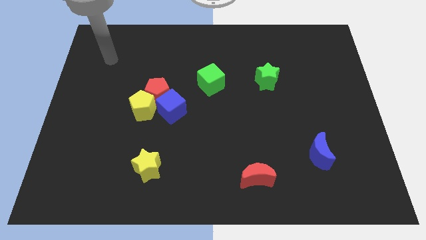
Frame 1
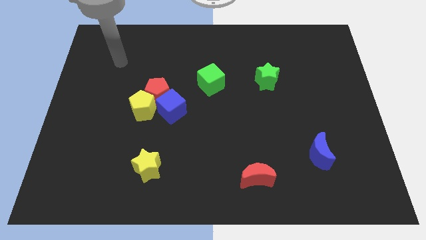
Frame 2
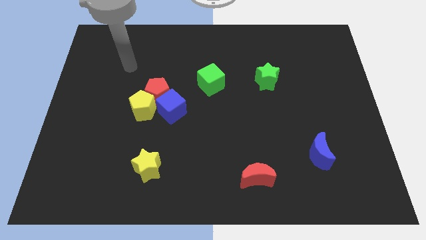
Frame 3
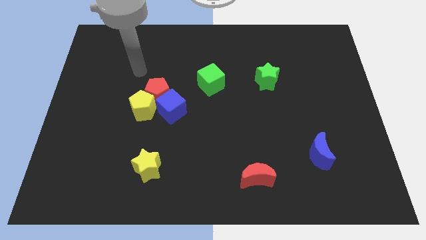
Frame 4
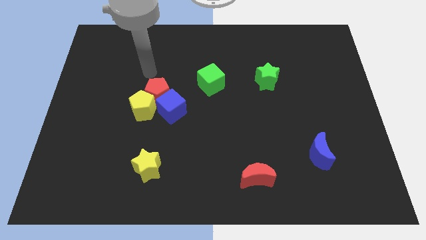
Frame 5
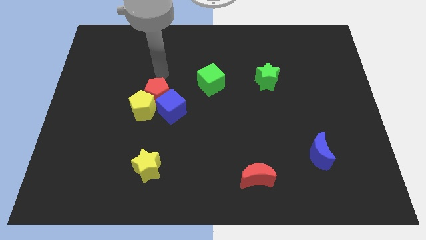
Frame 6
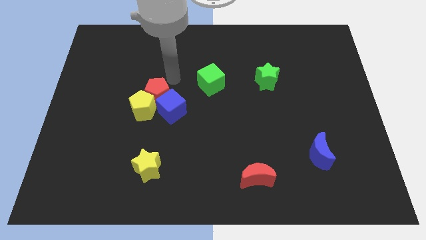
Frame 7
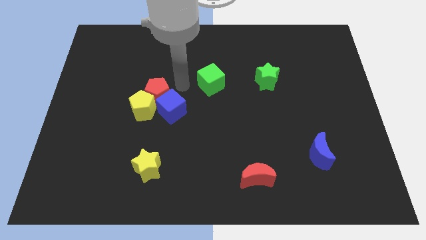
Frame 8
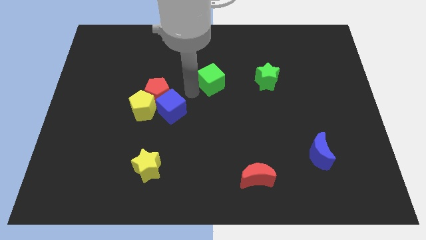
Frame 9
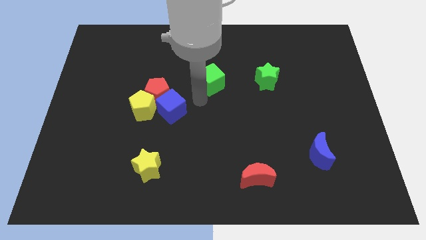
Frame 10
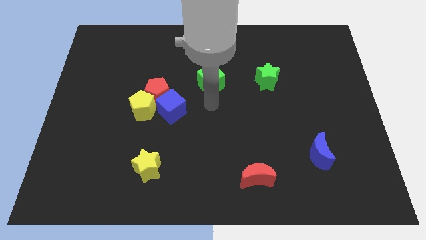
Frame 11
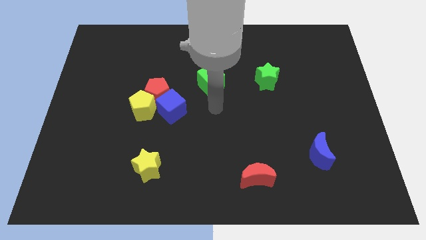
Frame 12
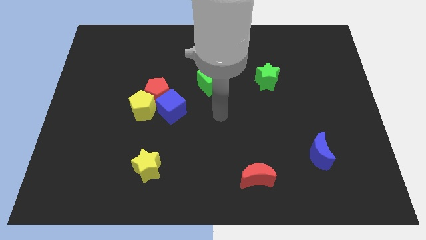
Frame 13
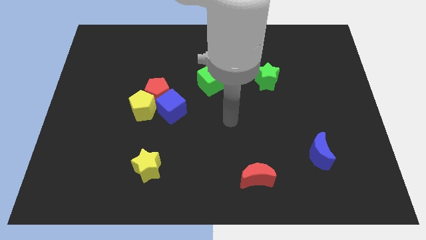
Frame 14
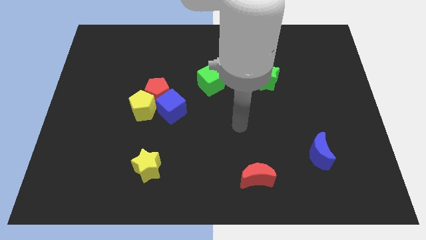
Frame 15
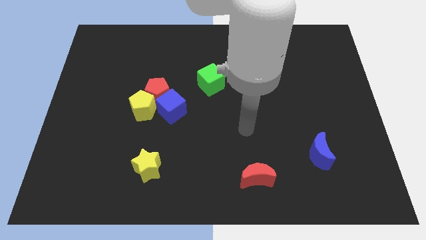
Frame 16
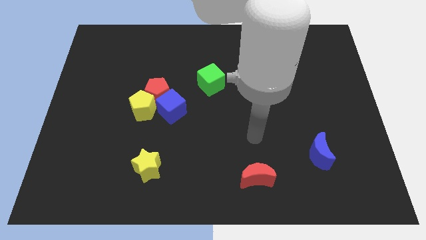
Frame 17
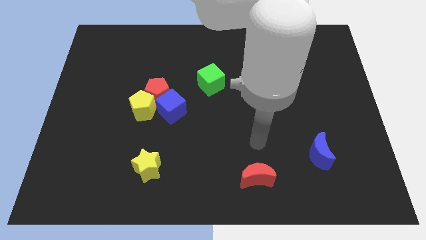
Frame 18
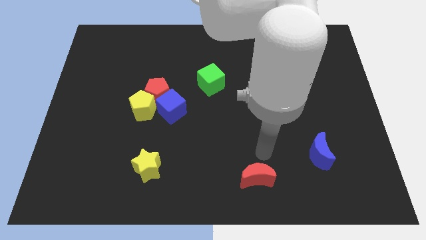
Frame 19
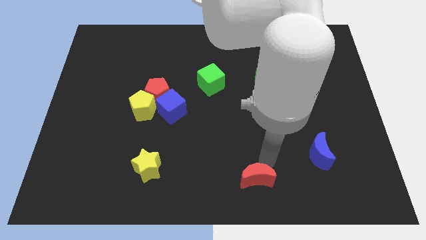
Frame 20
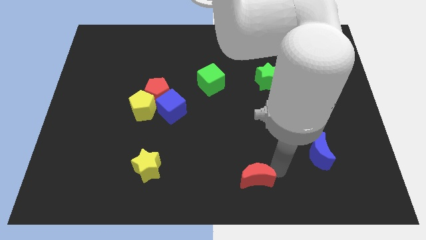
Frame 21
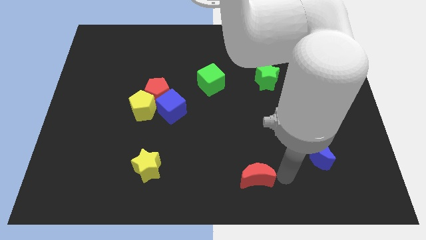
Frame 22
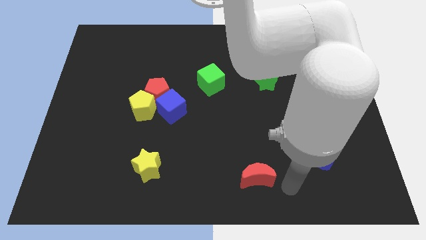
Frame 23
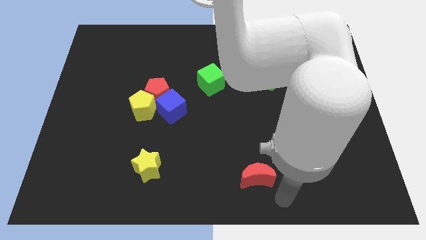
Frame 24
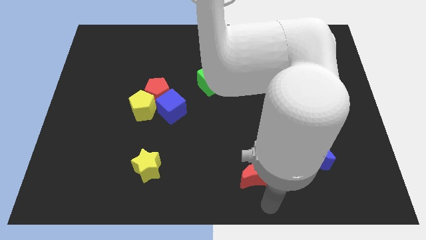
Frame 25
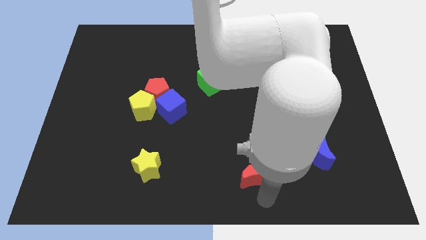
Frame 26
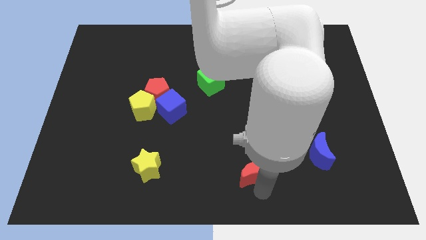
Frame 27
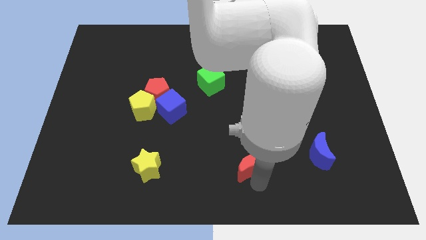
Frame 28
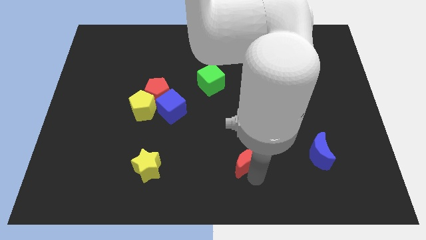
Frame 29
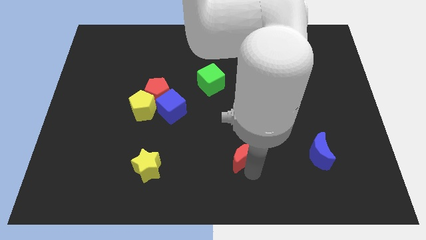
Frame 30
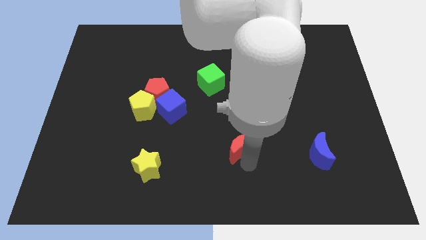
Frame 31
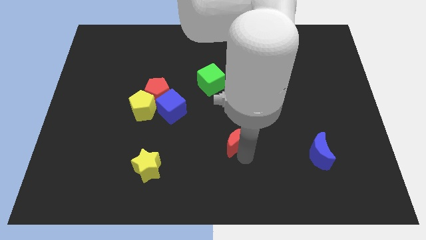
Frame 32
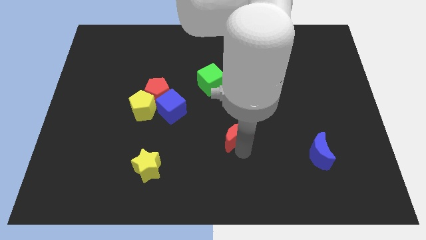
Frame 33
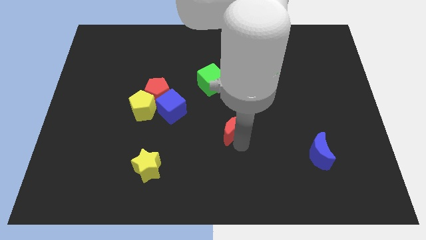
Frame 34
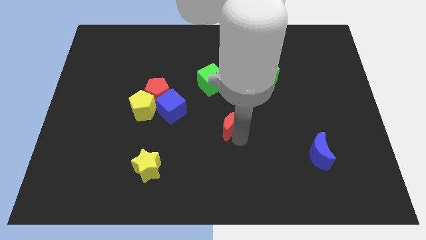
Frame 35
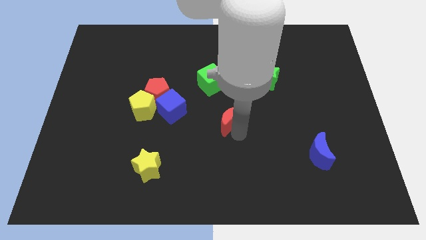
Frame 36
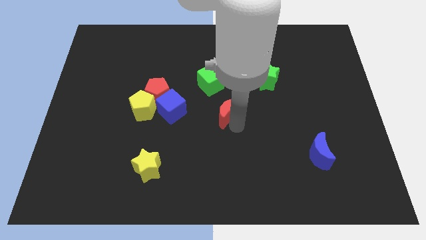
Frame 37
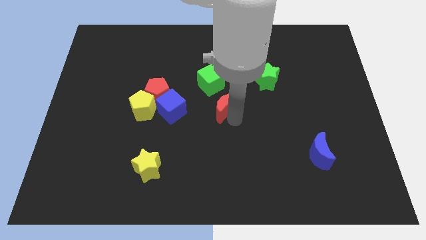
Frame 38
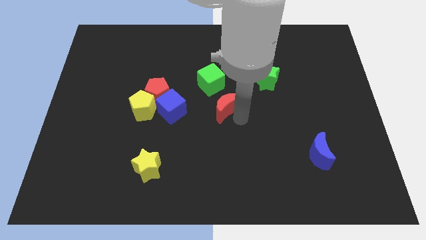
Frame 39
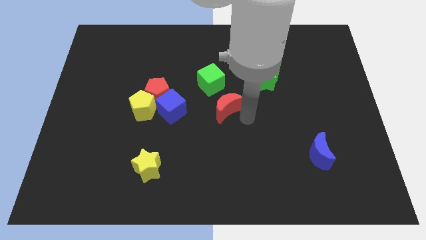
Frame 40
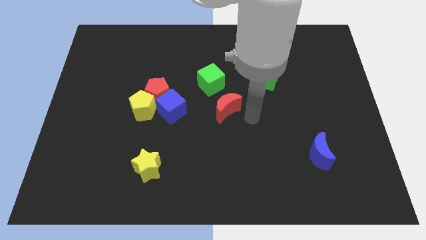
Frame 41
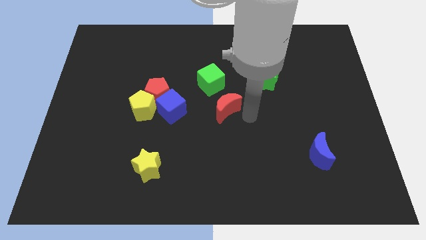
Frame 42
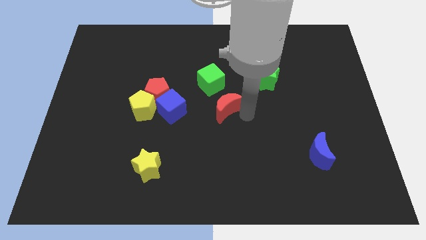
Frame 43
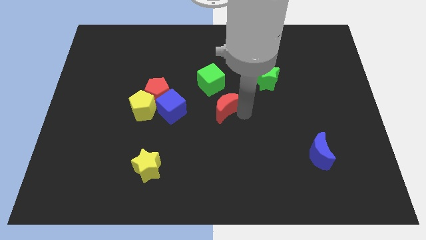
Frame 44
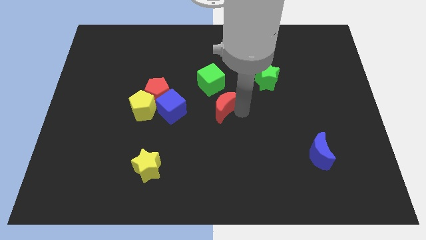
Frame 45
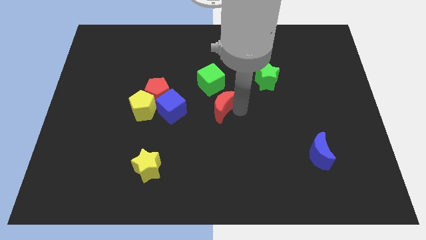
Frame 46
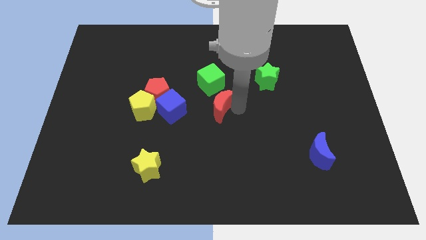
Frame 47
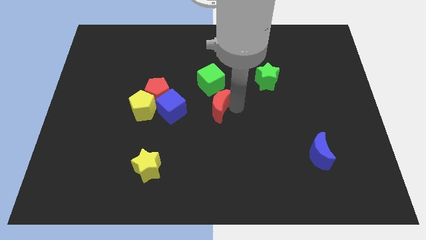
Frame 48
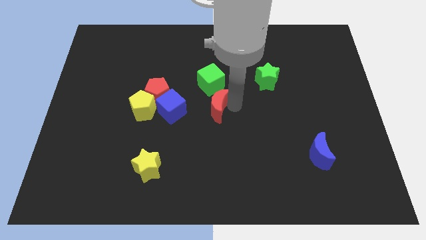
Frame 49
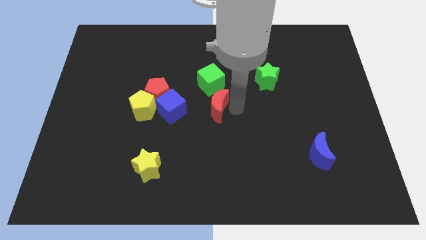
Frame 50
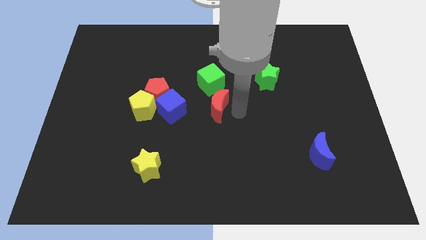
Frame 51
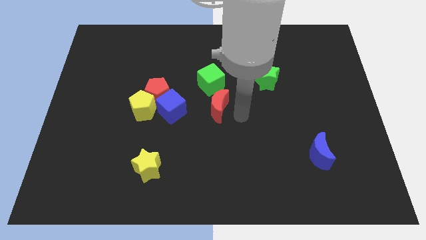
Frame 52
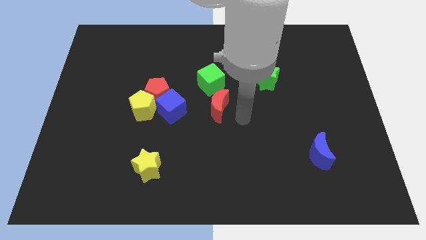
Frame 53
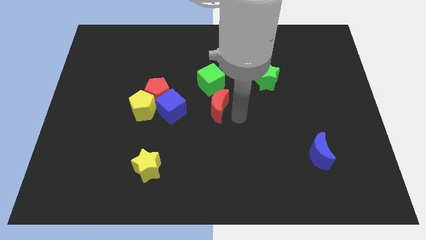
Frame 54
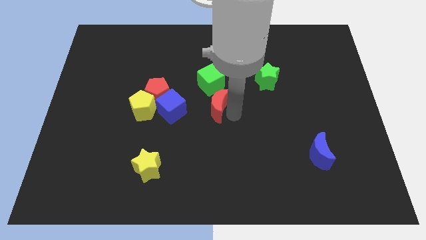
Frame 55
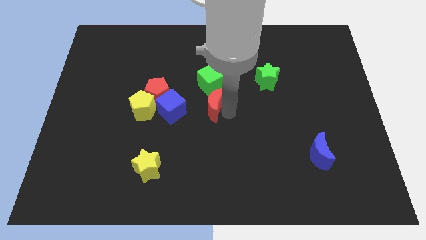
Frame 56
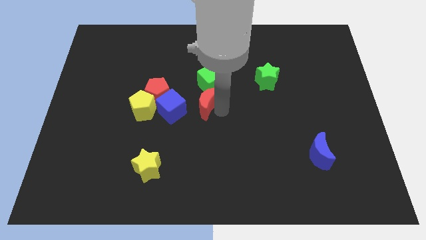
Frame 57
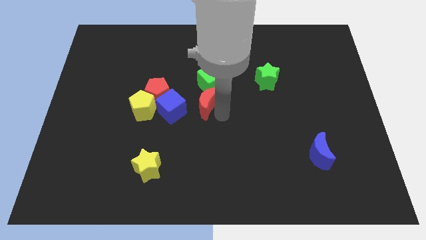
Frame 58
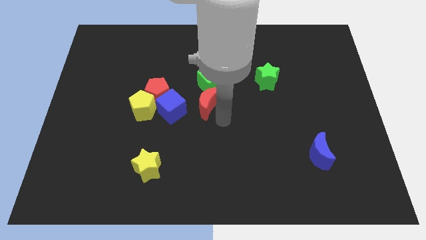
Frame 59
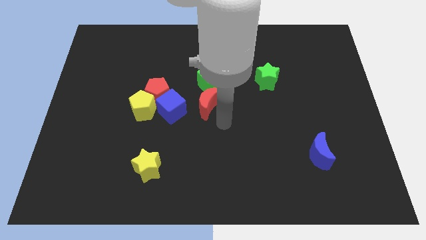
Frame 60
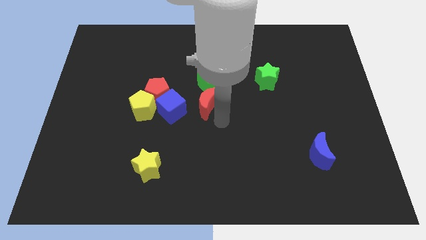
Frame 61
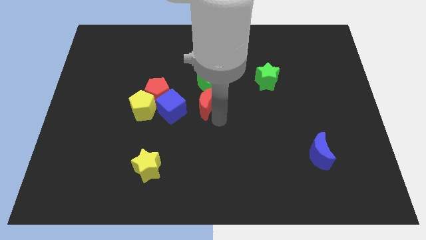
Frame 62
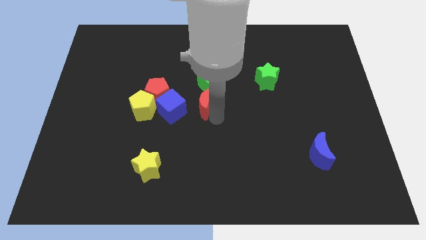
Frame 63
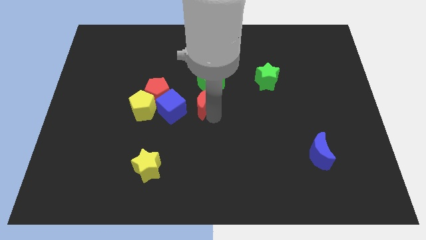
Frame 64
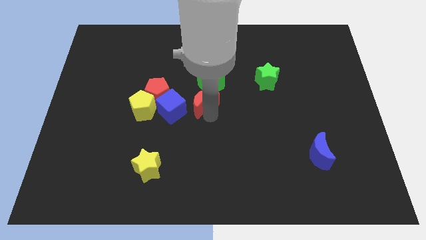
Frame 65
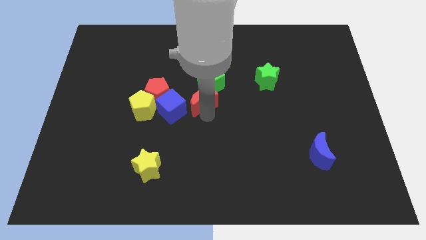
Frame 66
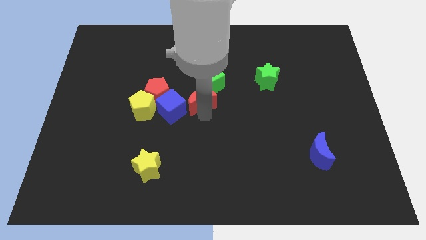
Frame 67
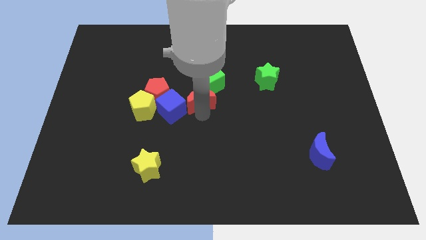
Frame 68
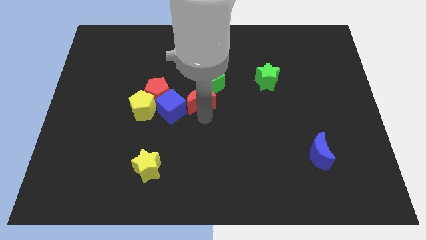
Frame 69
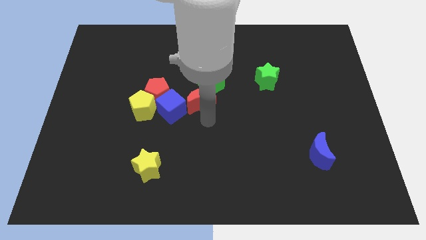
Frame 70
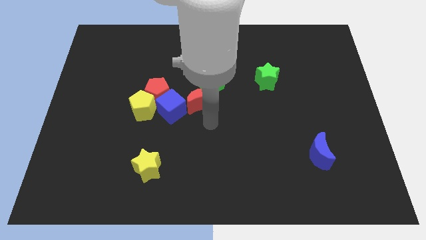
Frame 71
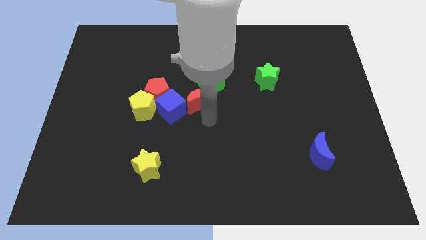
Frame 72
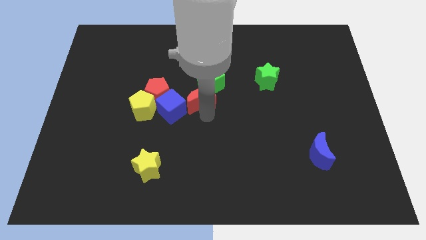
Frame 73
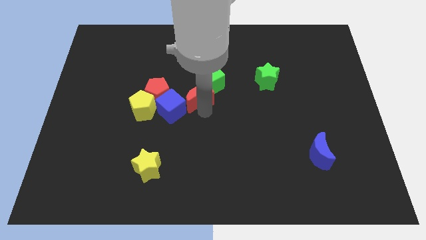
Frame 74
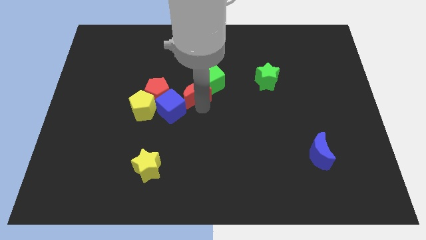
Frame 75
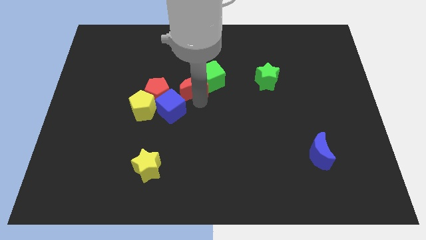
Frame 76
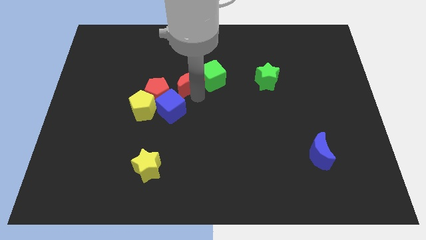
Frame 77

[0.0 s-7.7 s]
slide the red moon to the top right of the red pentagon
